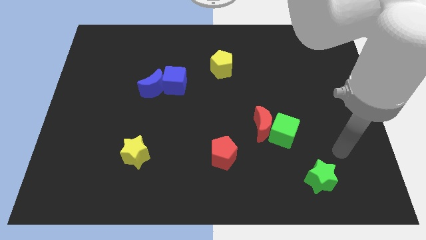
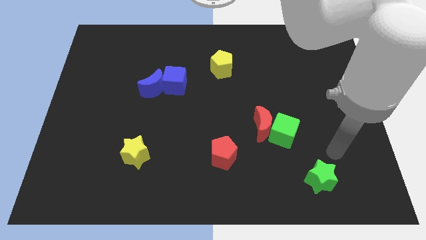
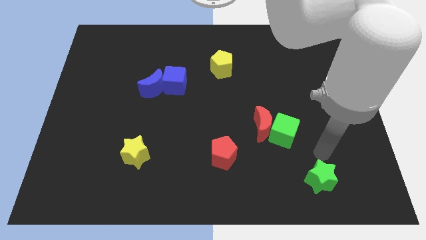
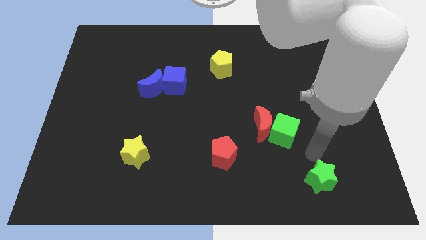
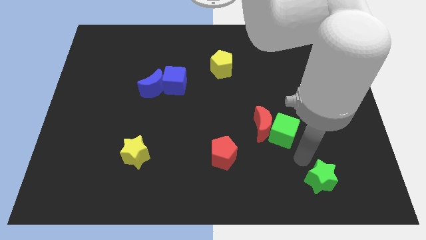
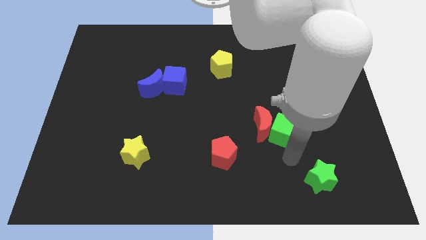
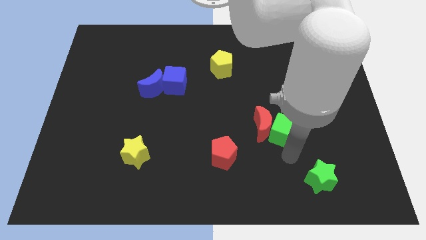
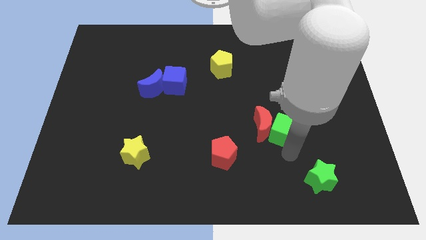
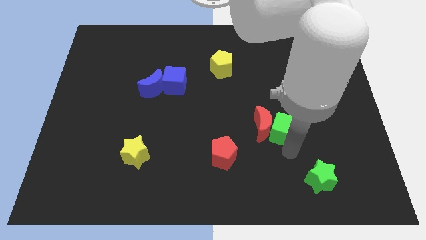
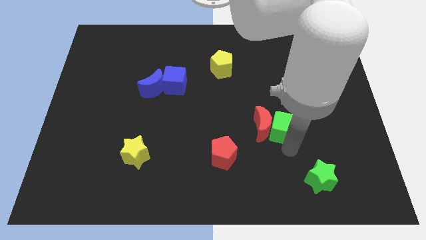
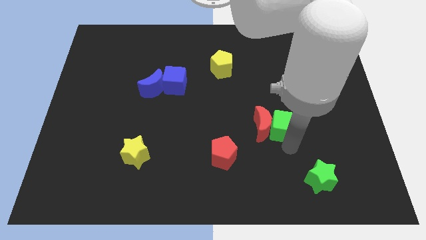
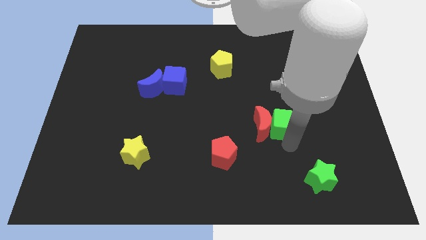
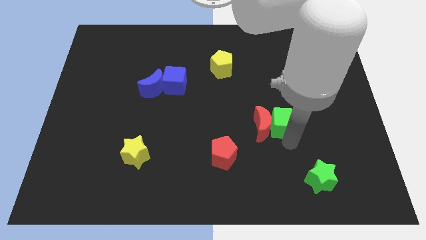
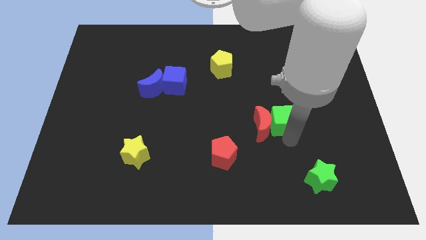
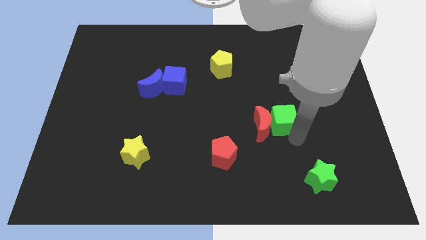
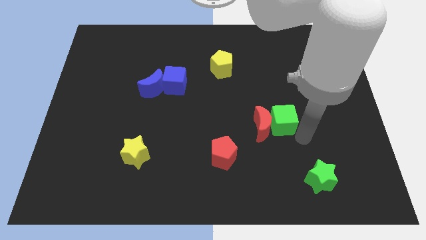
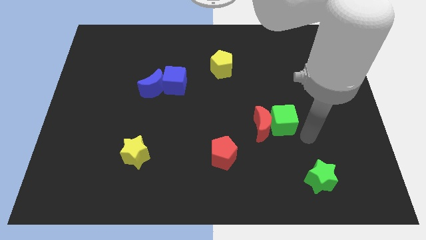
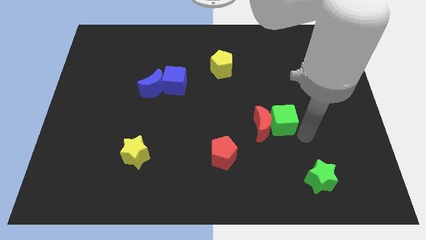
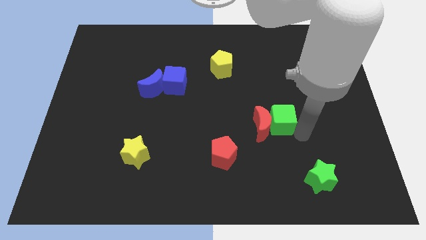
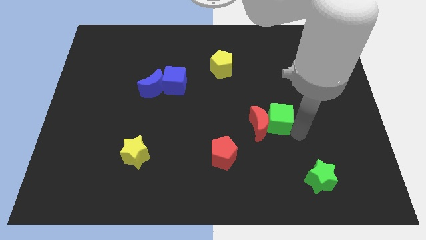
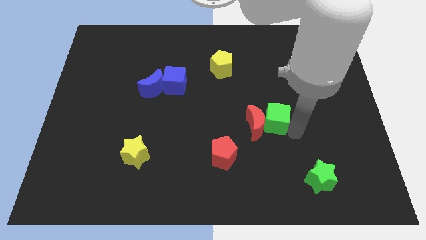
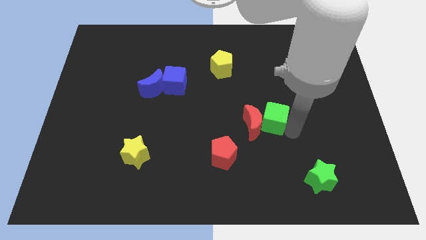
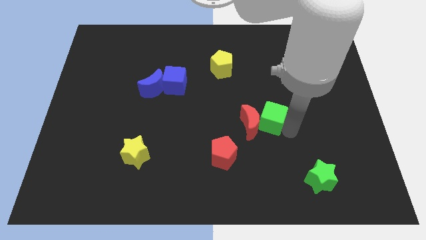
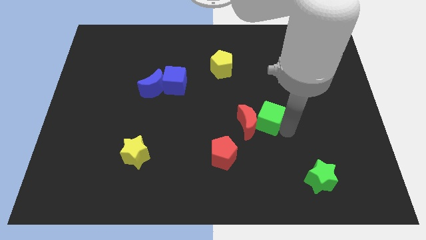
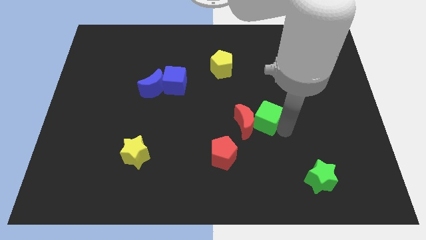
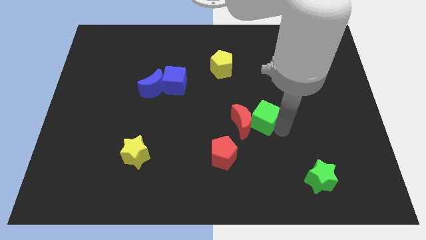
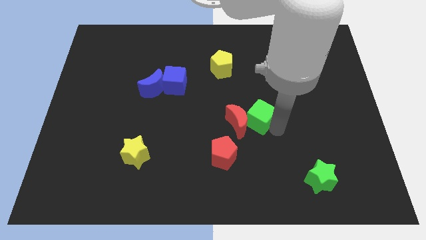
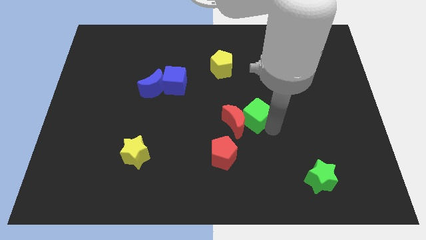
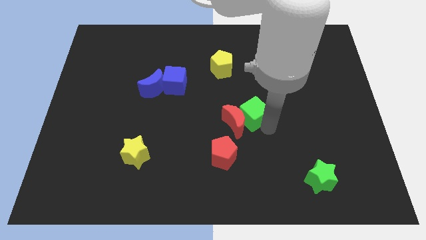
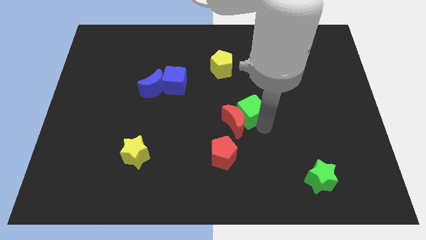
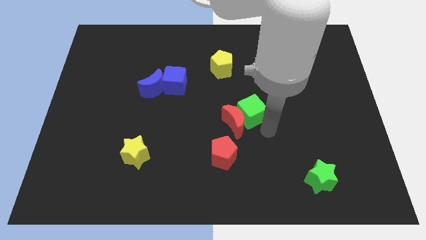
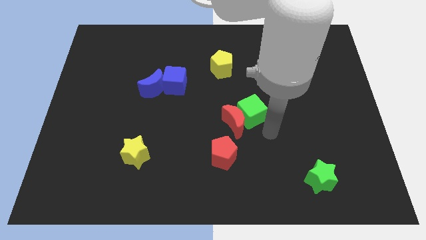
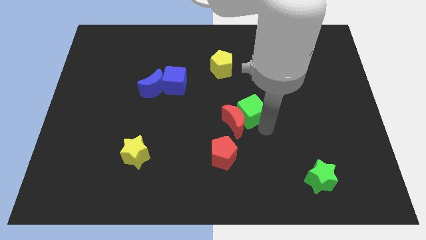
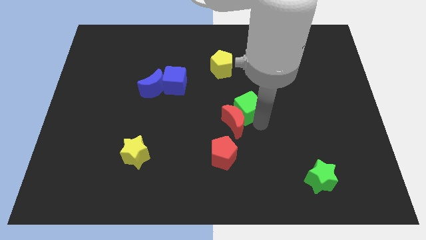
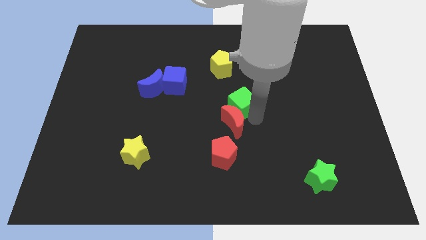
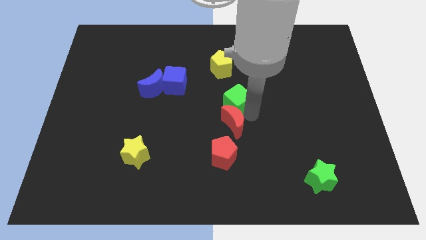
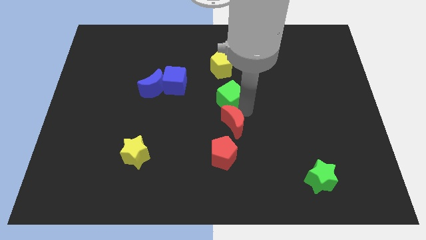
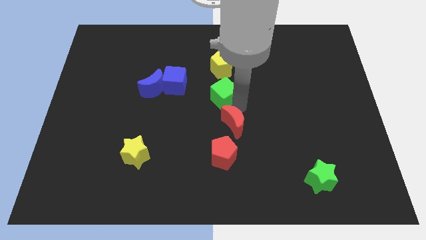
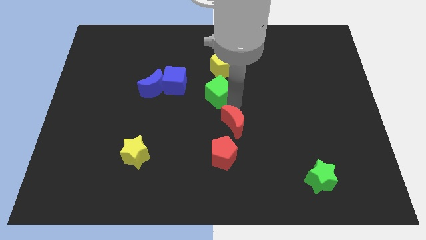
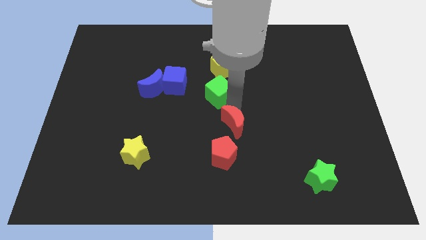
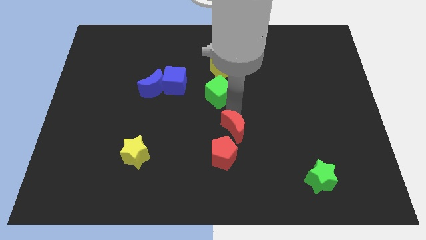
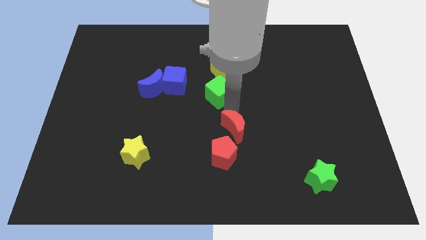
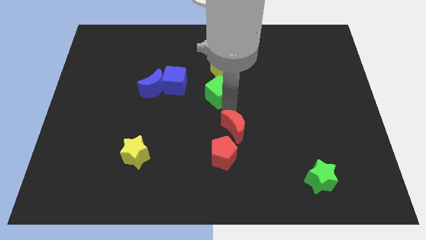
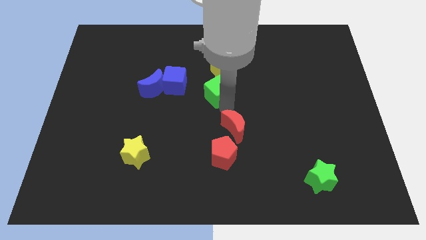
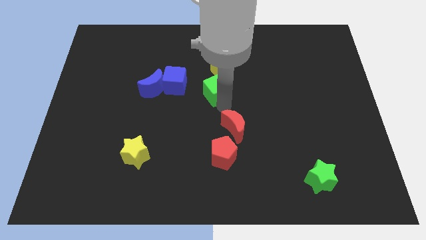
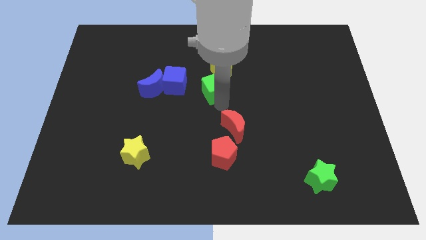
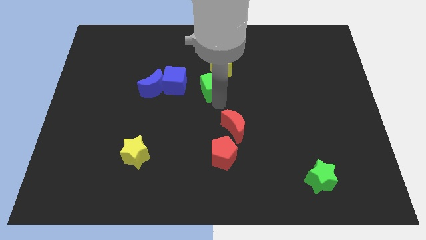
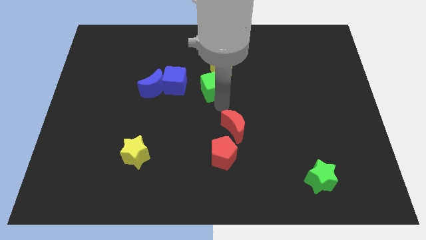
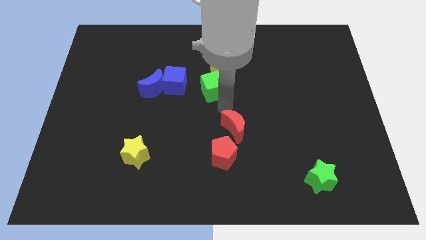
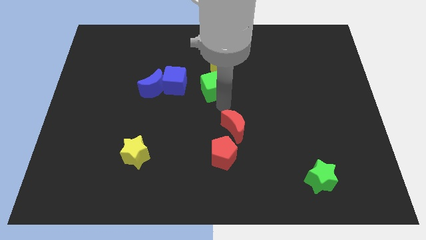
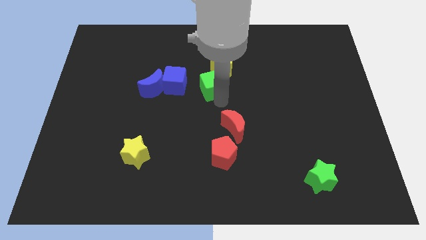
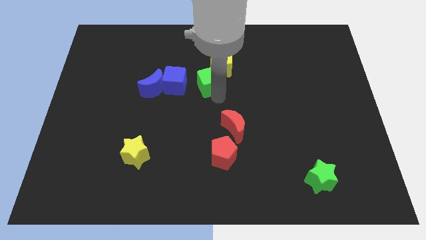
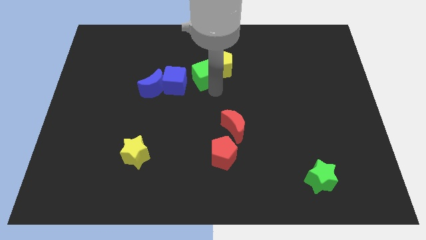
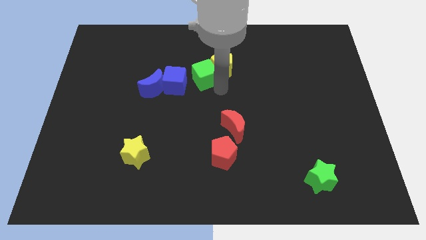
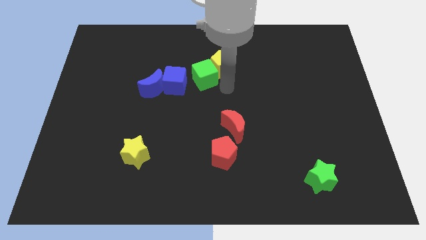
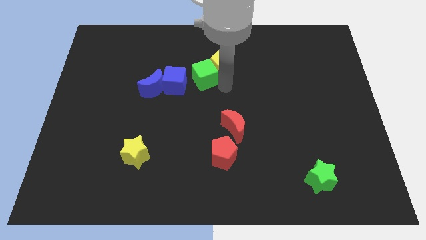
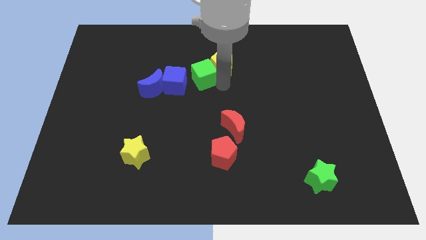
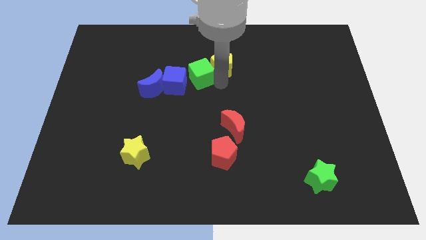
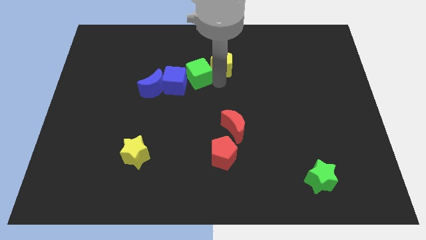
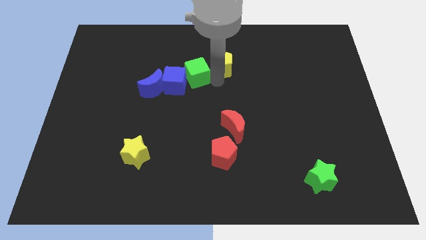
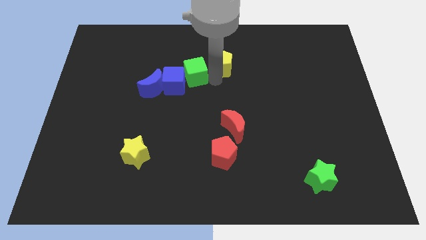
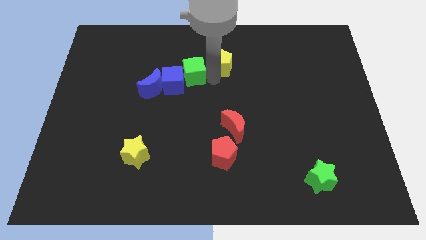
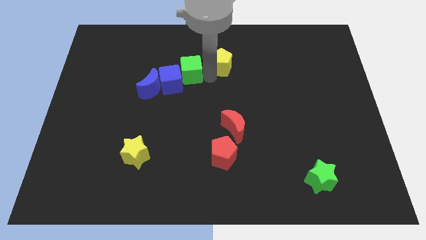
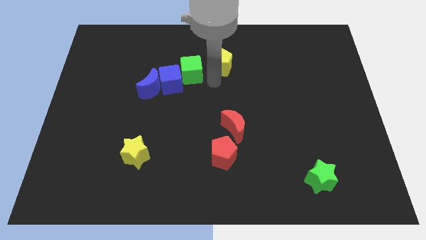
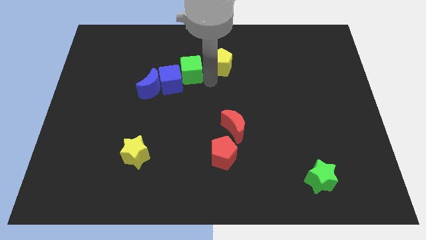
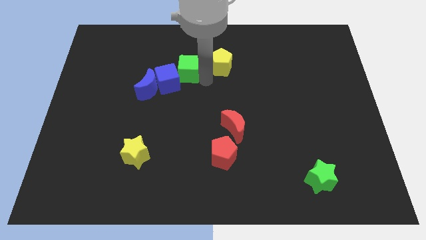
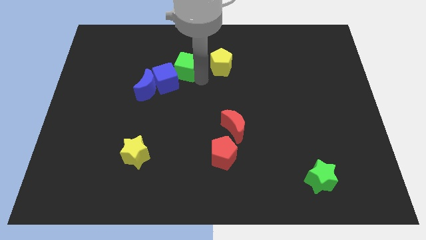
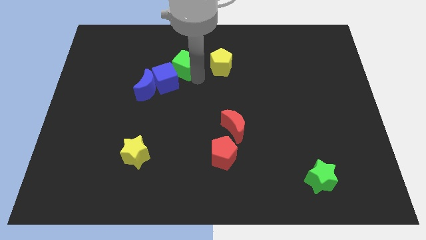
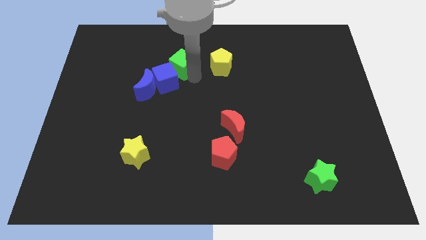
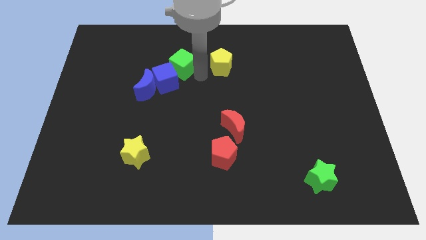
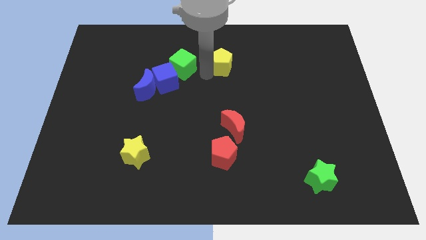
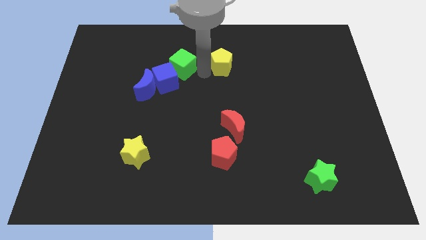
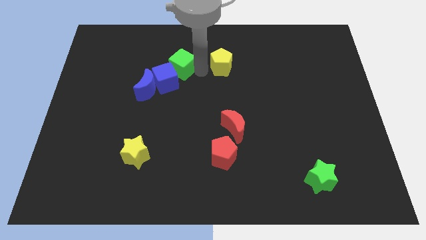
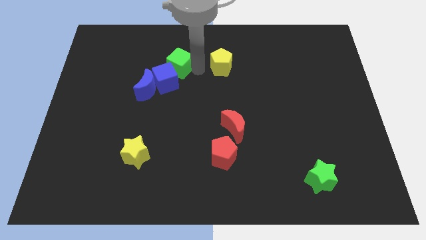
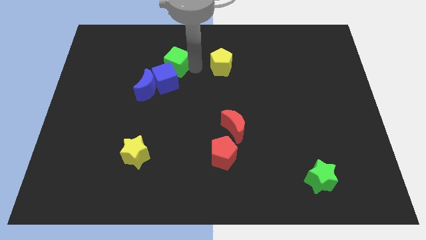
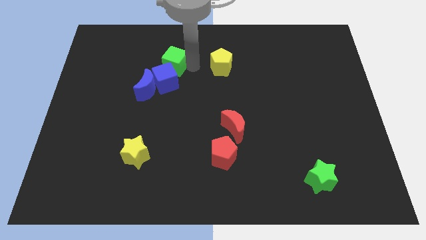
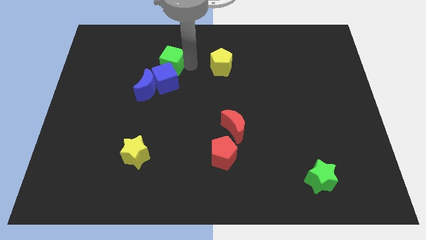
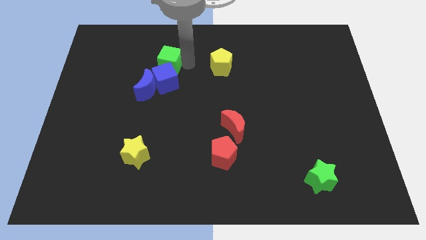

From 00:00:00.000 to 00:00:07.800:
push the green cube to the top side of the blue moon
